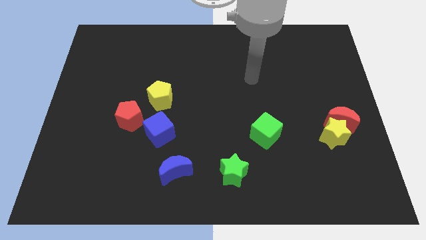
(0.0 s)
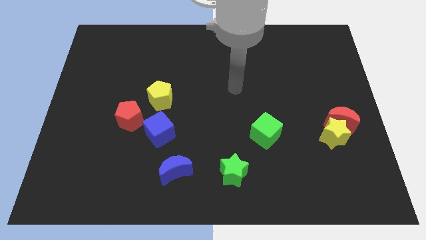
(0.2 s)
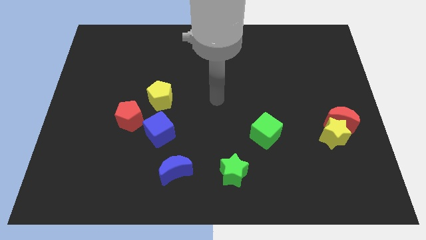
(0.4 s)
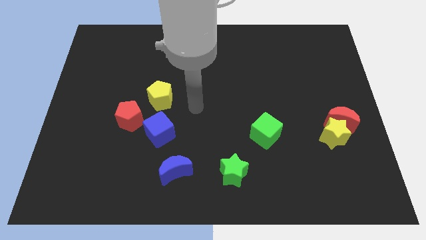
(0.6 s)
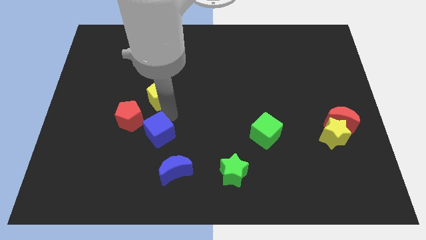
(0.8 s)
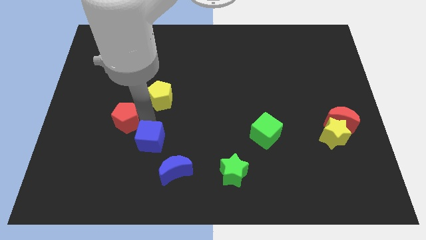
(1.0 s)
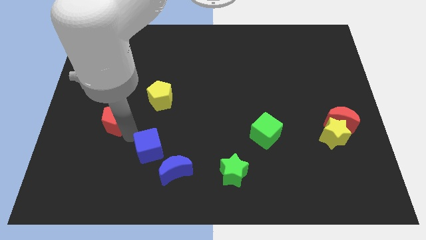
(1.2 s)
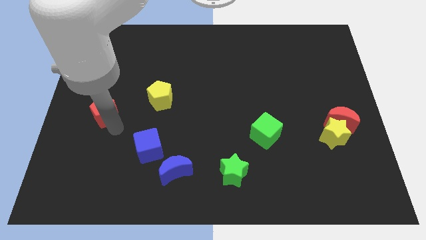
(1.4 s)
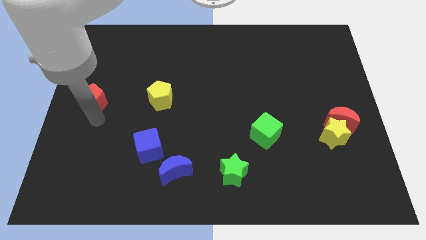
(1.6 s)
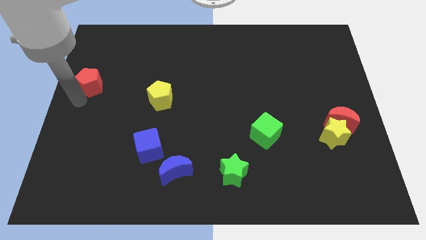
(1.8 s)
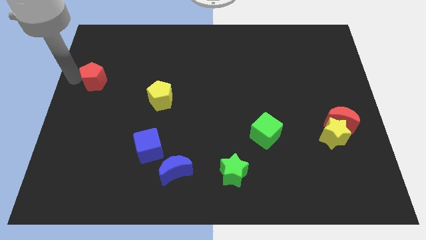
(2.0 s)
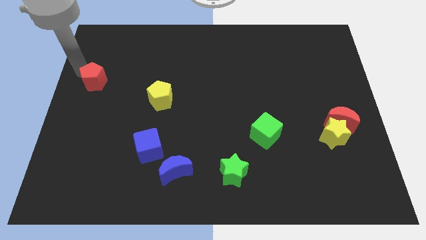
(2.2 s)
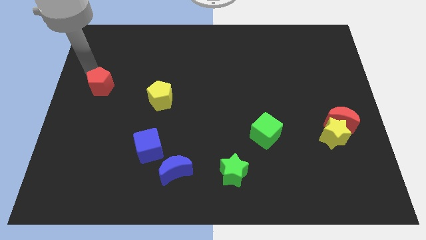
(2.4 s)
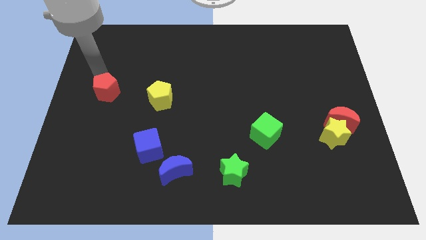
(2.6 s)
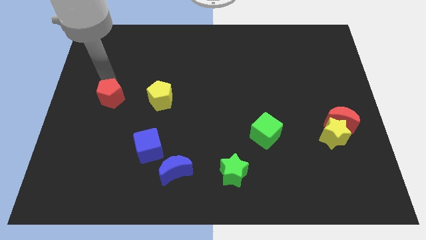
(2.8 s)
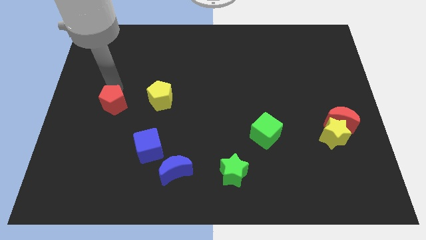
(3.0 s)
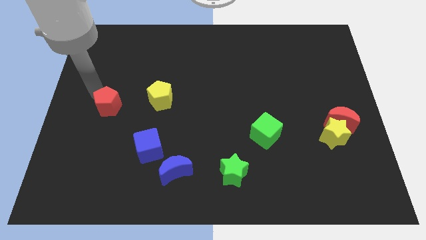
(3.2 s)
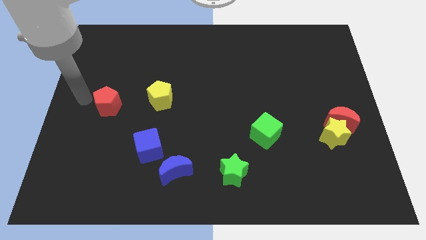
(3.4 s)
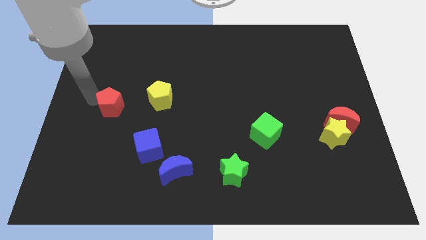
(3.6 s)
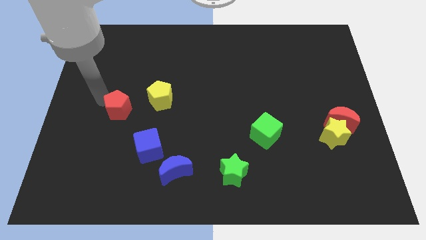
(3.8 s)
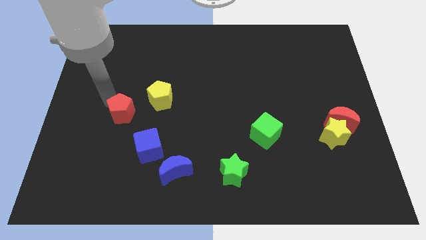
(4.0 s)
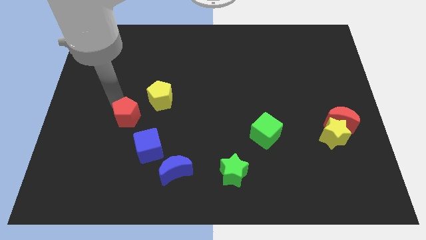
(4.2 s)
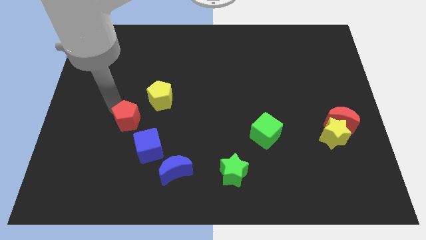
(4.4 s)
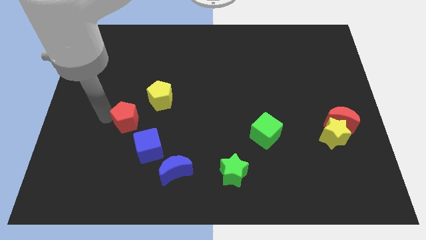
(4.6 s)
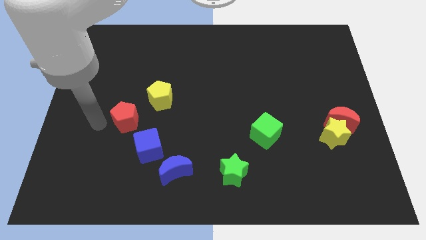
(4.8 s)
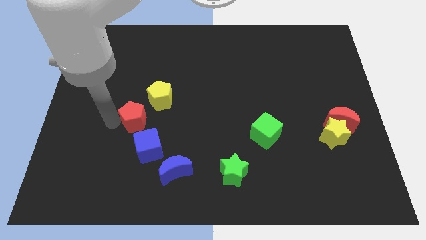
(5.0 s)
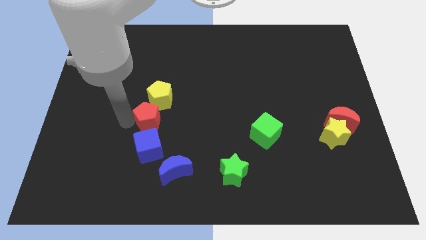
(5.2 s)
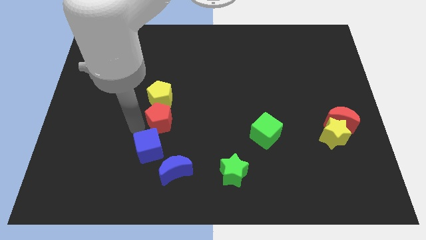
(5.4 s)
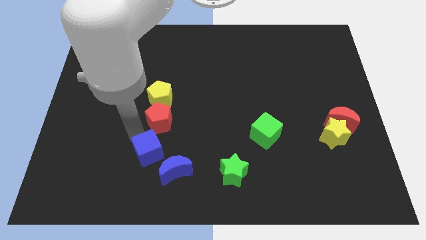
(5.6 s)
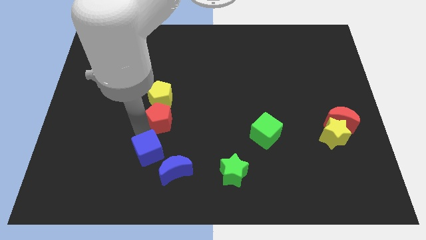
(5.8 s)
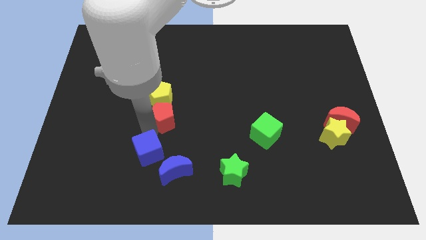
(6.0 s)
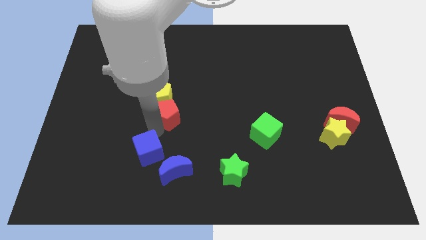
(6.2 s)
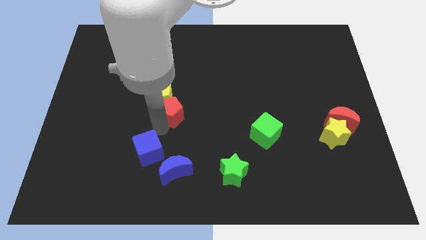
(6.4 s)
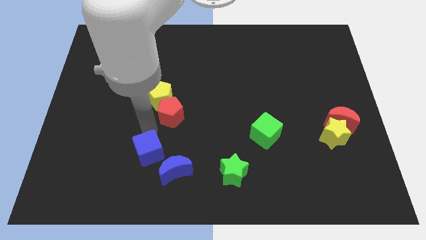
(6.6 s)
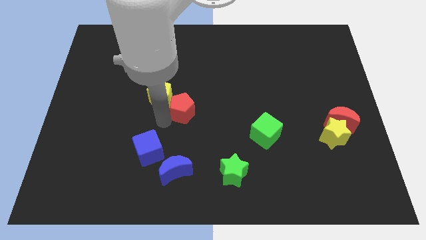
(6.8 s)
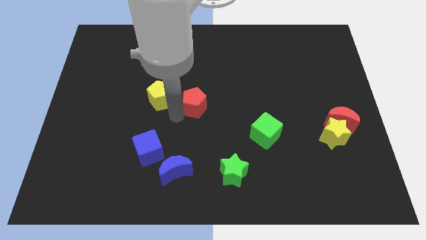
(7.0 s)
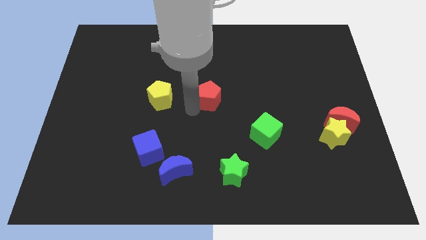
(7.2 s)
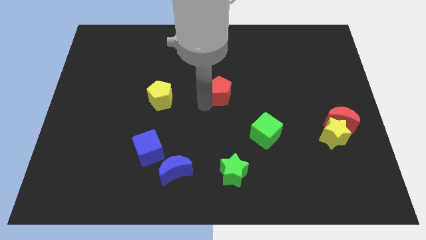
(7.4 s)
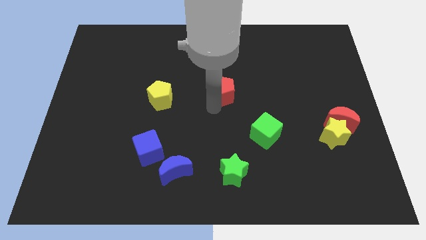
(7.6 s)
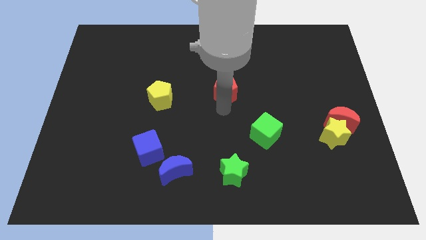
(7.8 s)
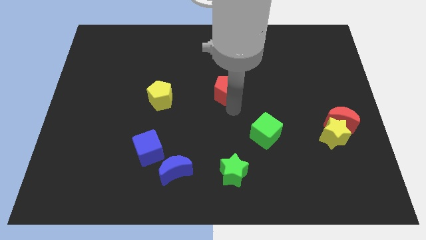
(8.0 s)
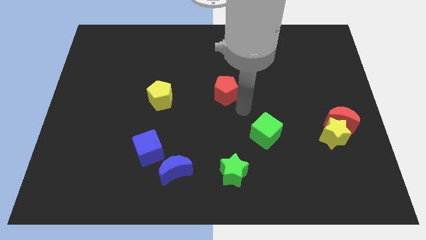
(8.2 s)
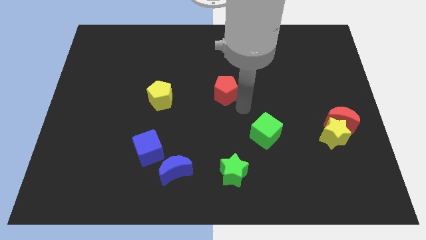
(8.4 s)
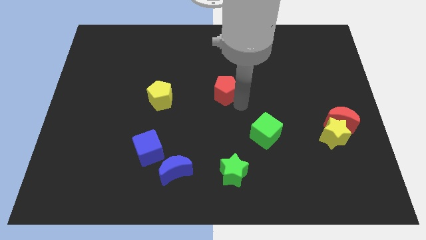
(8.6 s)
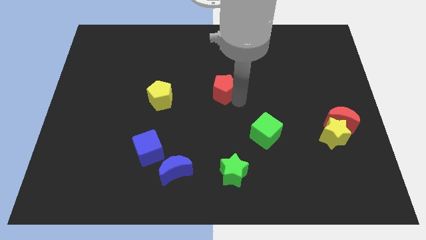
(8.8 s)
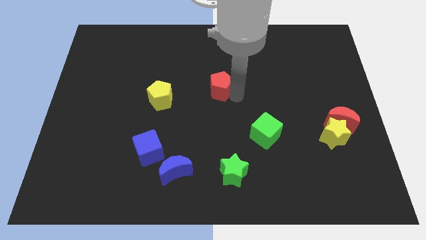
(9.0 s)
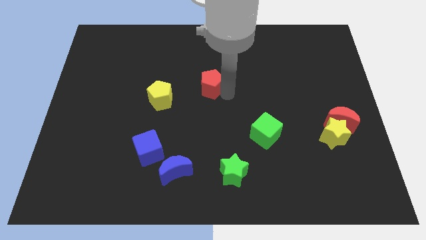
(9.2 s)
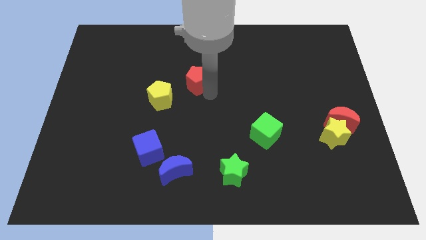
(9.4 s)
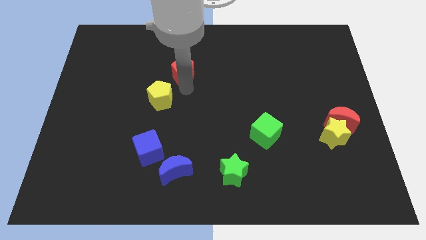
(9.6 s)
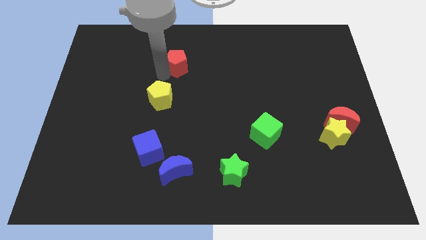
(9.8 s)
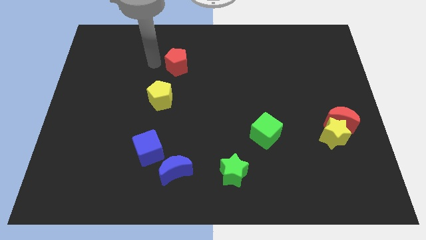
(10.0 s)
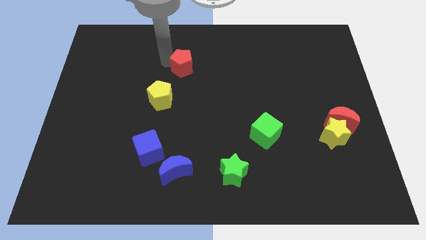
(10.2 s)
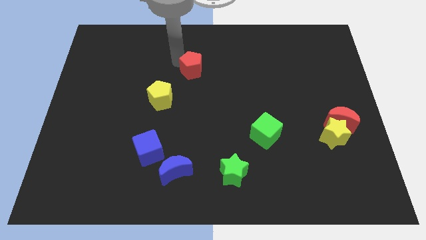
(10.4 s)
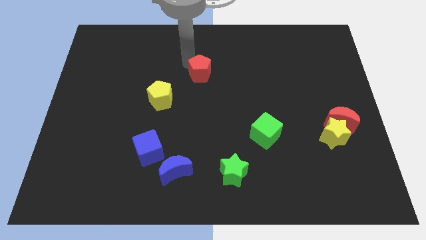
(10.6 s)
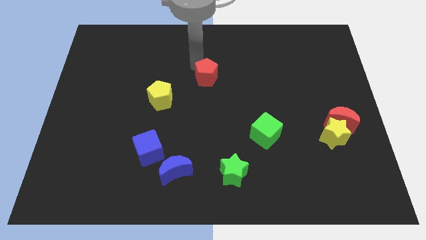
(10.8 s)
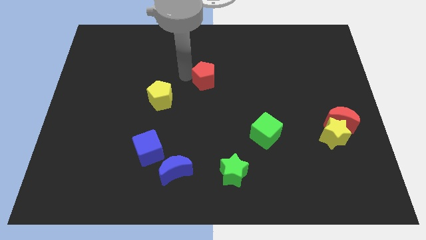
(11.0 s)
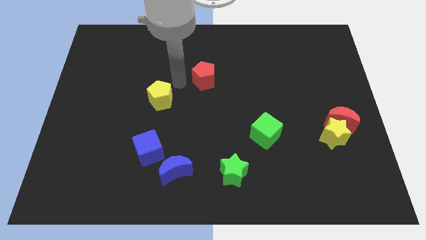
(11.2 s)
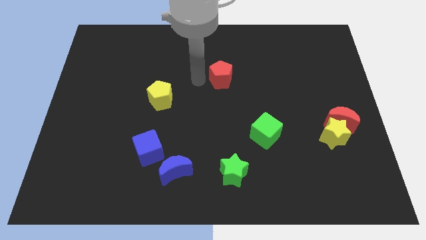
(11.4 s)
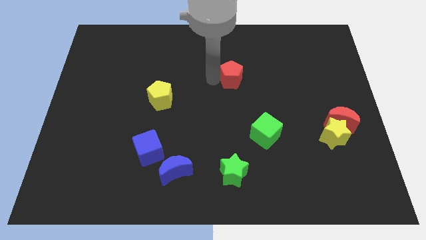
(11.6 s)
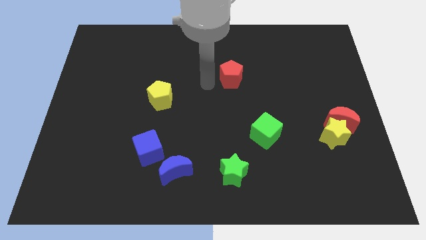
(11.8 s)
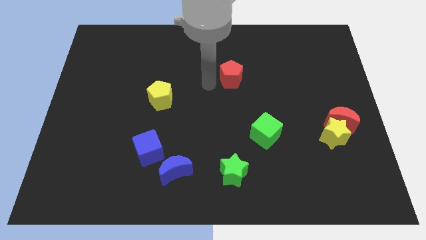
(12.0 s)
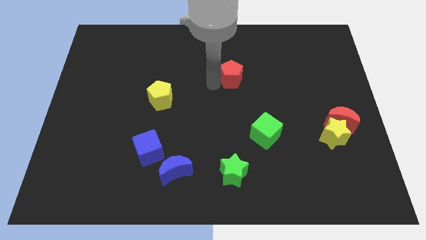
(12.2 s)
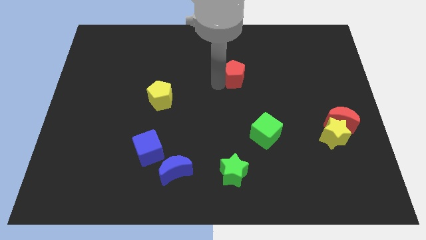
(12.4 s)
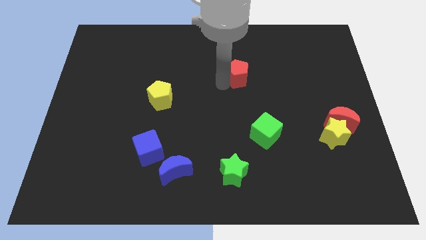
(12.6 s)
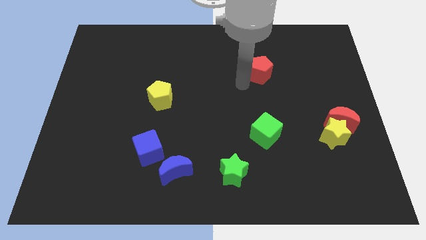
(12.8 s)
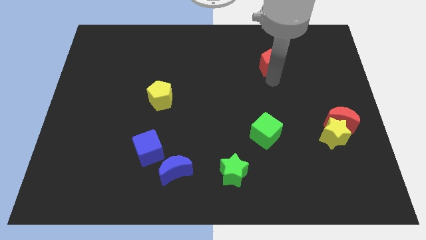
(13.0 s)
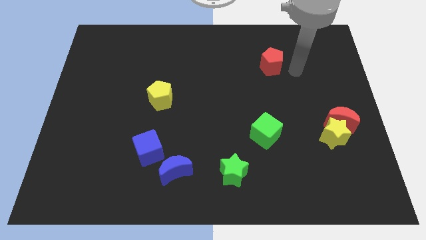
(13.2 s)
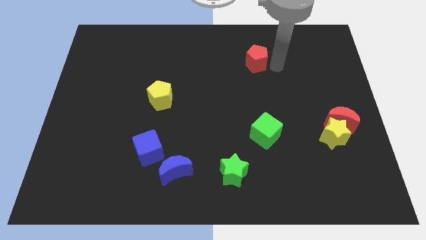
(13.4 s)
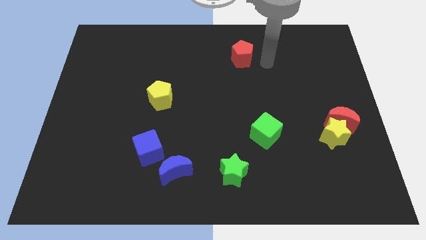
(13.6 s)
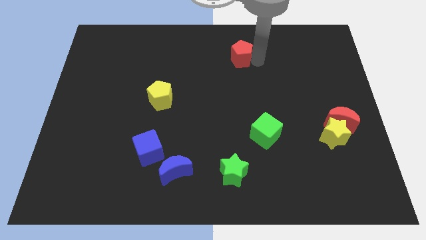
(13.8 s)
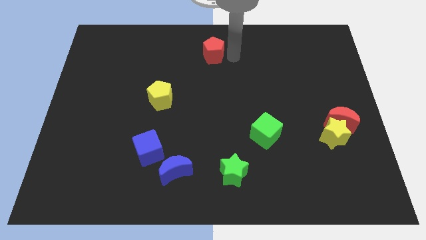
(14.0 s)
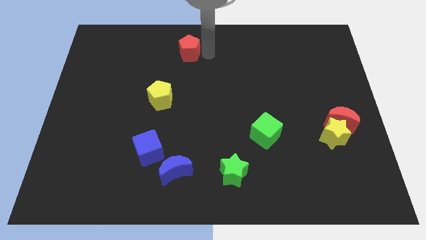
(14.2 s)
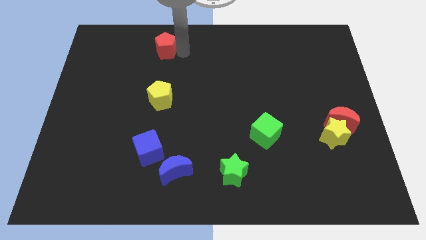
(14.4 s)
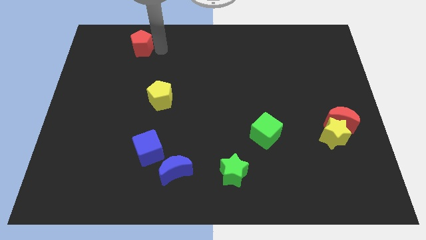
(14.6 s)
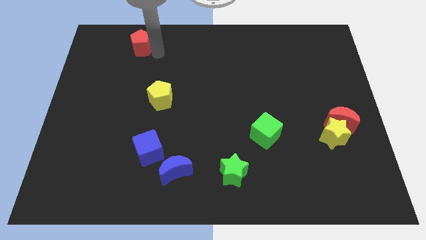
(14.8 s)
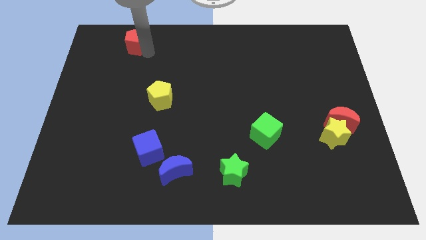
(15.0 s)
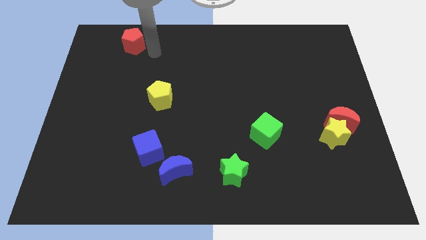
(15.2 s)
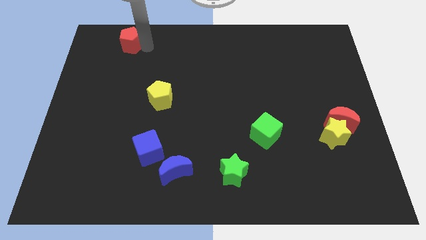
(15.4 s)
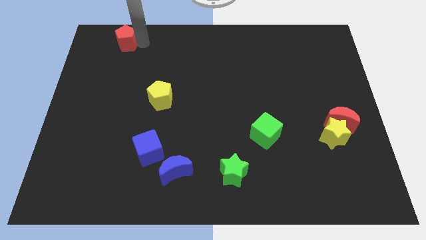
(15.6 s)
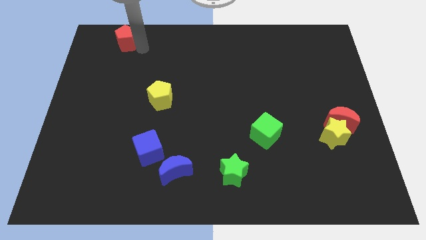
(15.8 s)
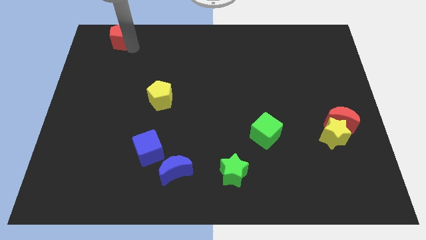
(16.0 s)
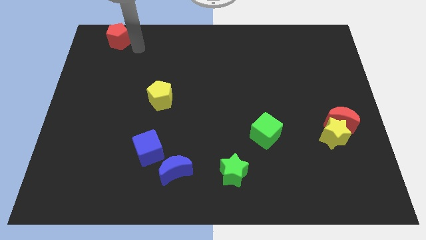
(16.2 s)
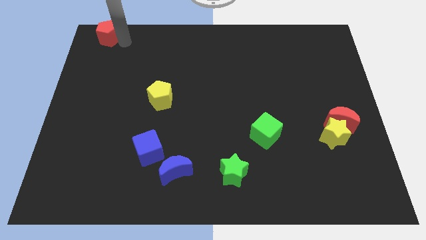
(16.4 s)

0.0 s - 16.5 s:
slide the red pentagon to the top left corner
